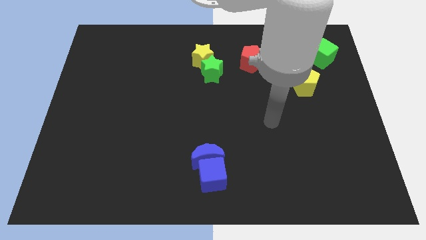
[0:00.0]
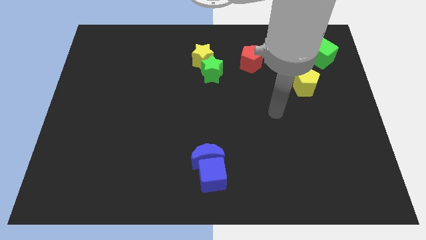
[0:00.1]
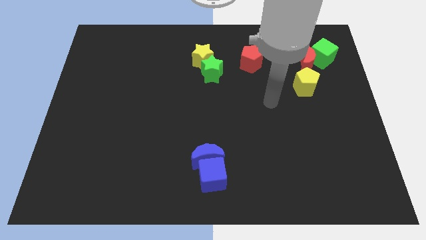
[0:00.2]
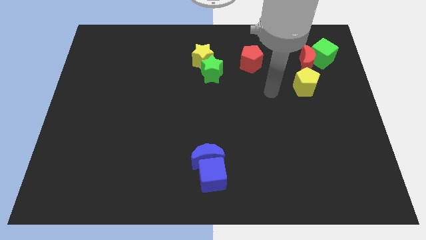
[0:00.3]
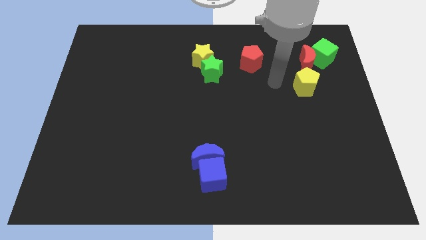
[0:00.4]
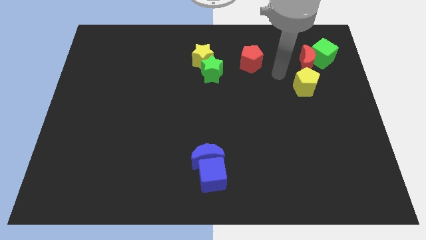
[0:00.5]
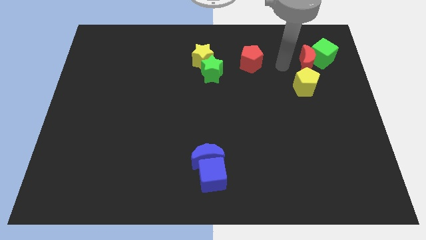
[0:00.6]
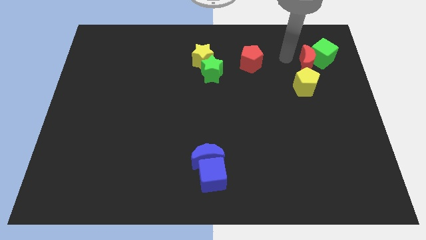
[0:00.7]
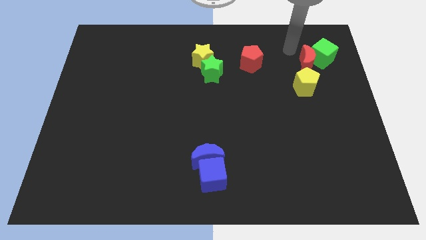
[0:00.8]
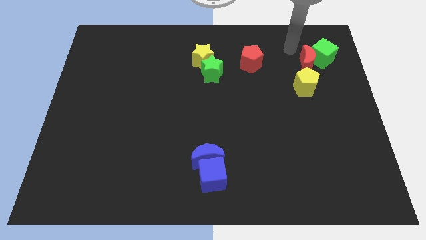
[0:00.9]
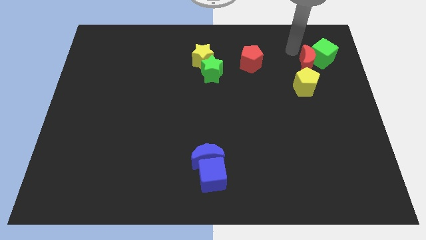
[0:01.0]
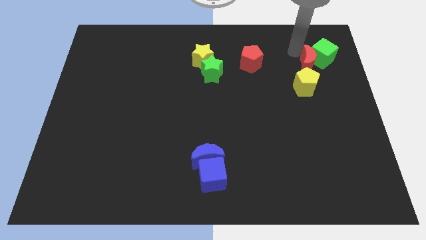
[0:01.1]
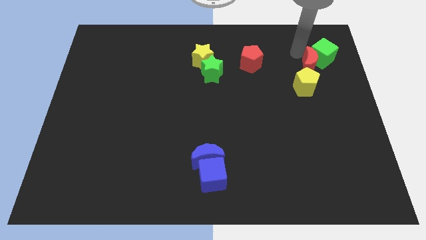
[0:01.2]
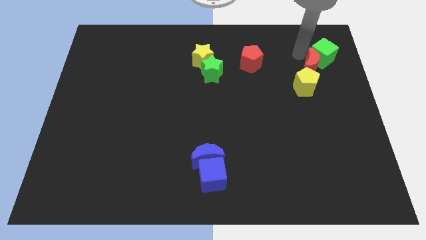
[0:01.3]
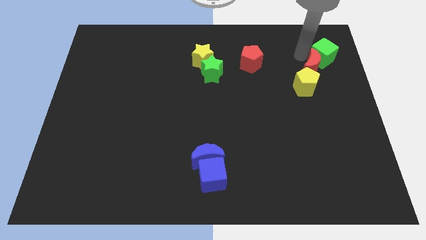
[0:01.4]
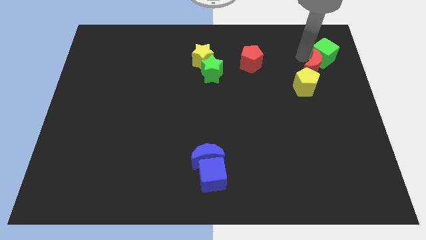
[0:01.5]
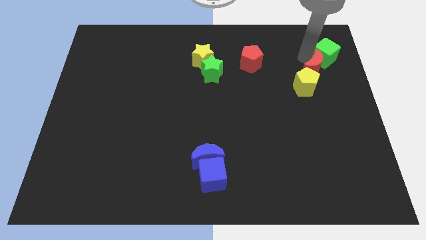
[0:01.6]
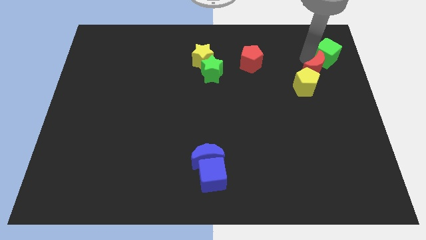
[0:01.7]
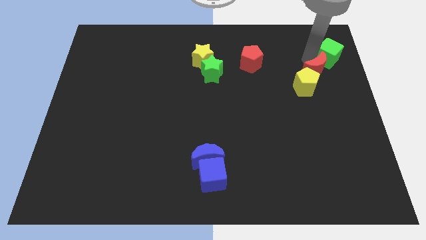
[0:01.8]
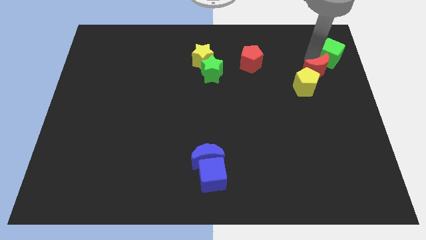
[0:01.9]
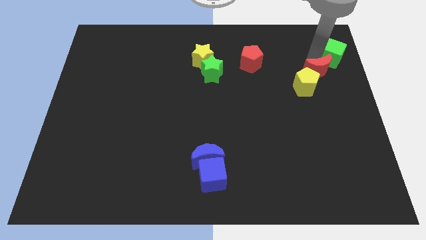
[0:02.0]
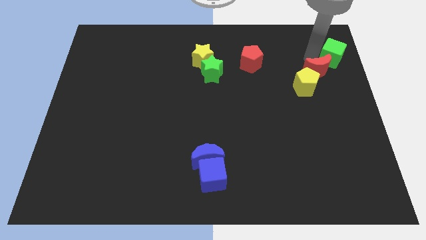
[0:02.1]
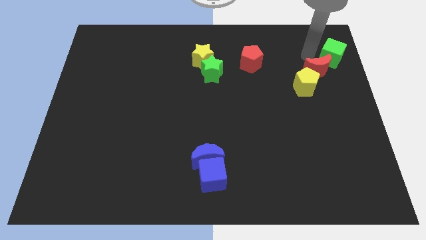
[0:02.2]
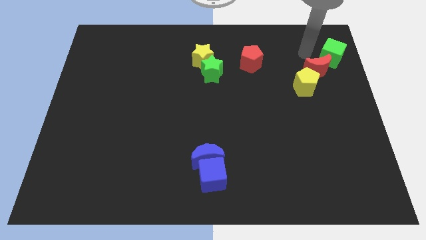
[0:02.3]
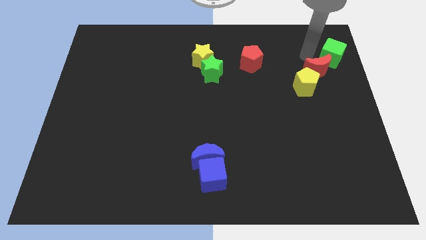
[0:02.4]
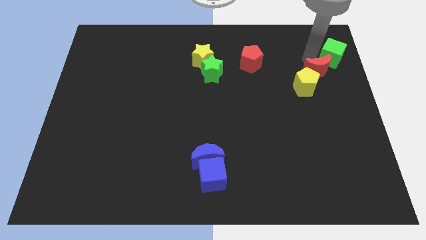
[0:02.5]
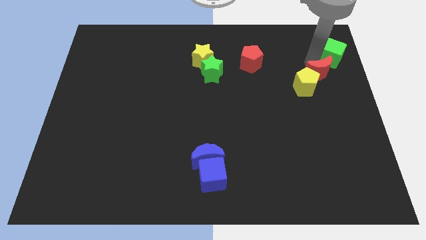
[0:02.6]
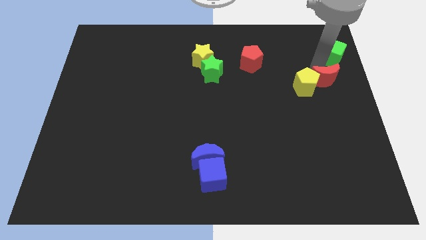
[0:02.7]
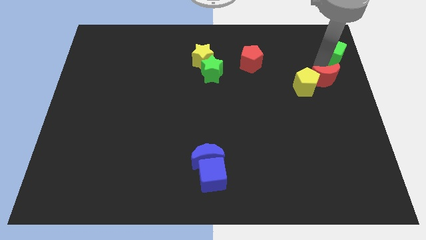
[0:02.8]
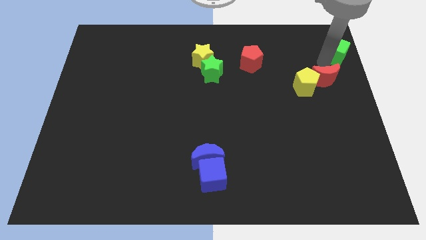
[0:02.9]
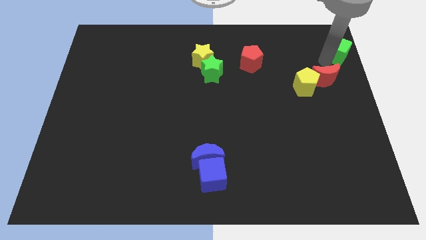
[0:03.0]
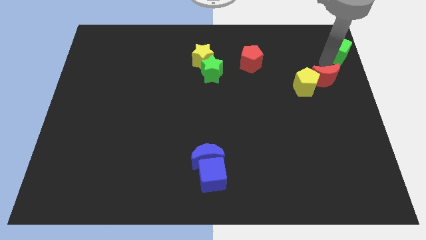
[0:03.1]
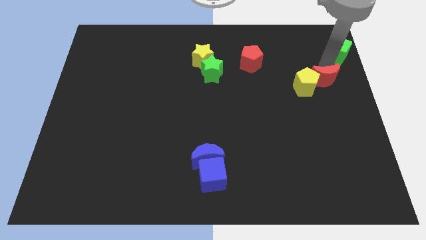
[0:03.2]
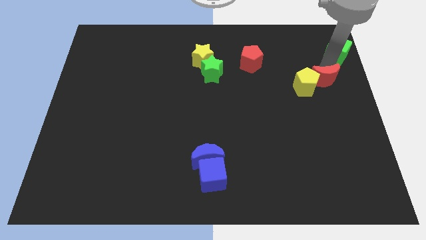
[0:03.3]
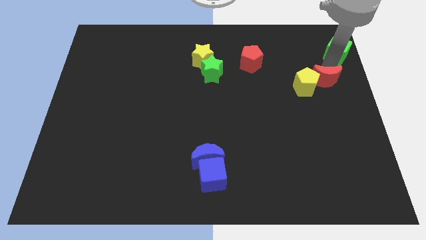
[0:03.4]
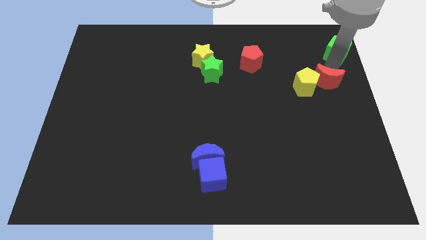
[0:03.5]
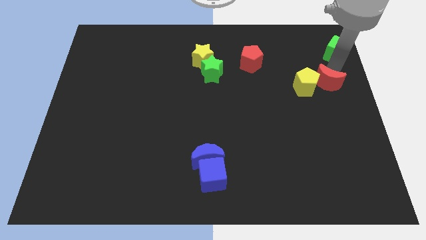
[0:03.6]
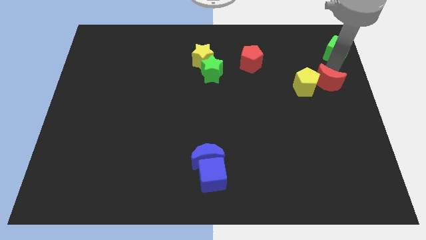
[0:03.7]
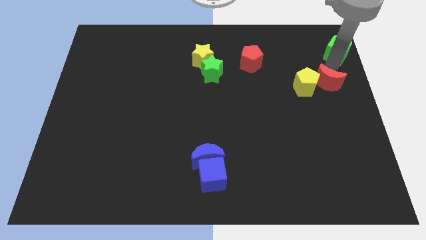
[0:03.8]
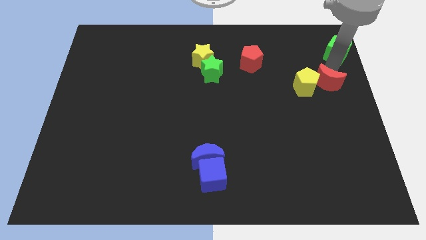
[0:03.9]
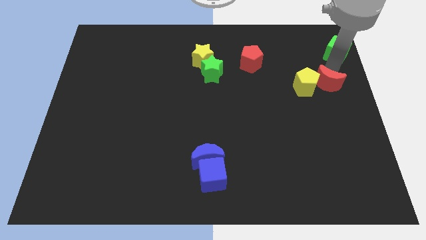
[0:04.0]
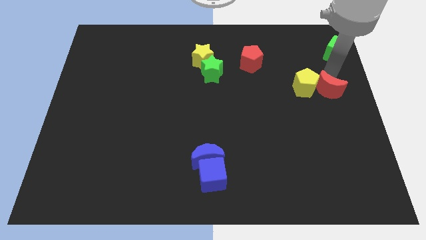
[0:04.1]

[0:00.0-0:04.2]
move the red moon downwards a little

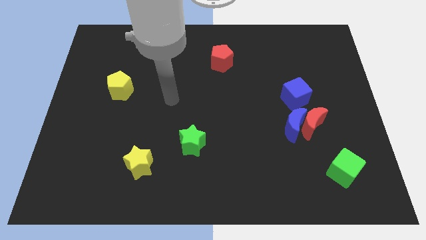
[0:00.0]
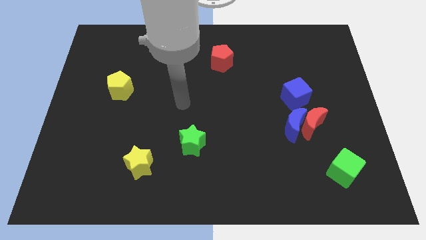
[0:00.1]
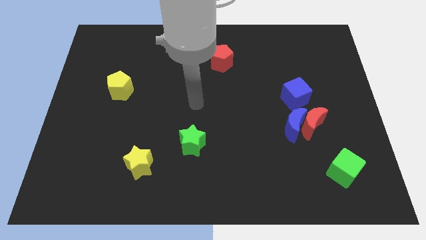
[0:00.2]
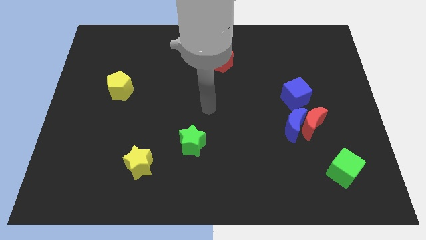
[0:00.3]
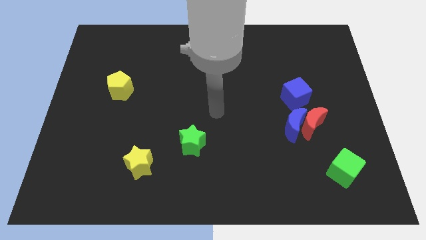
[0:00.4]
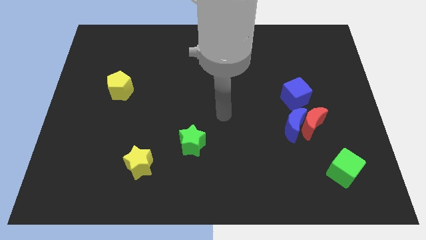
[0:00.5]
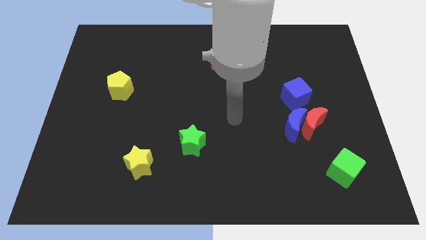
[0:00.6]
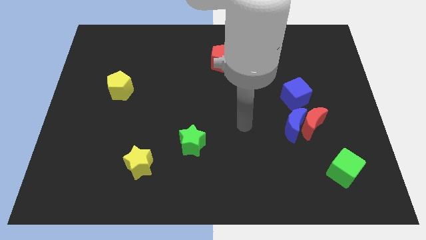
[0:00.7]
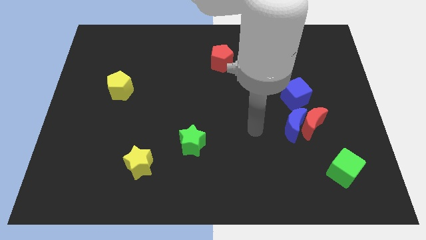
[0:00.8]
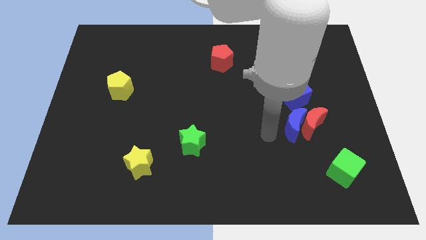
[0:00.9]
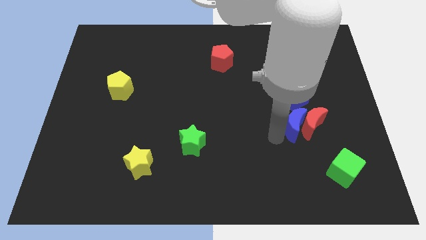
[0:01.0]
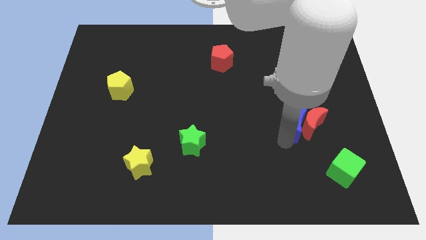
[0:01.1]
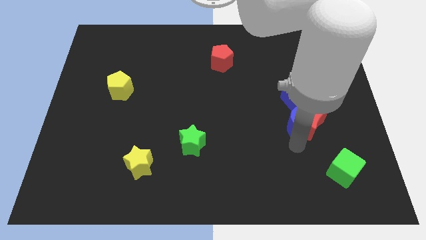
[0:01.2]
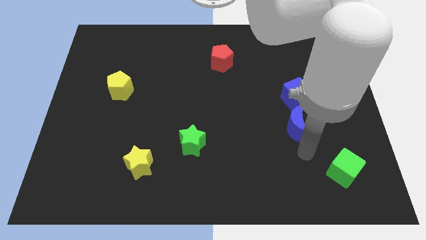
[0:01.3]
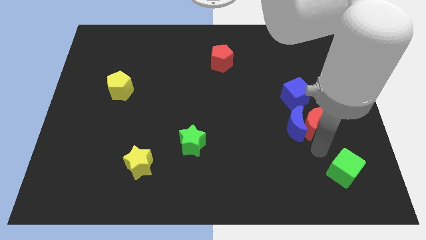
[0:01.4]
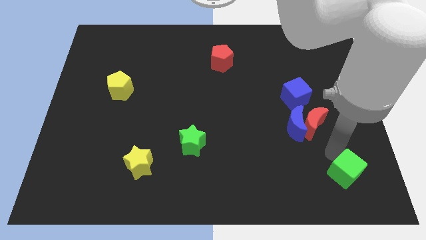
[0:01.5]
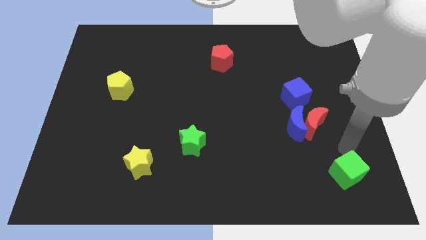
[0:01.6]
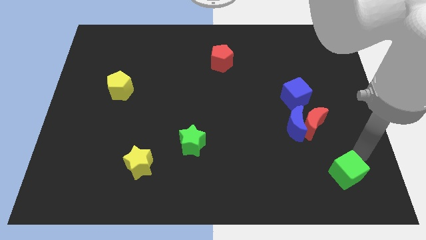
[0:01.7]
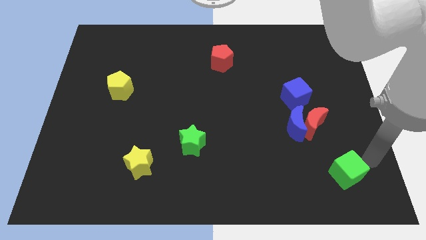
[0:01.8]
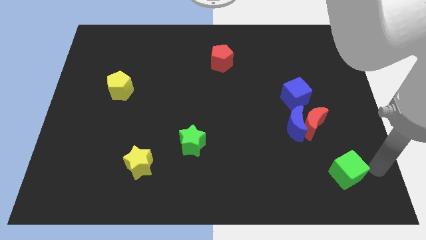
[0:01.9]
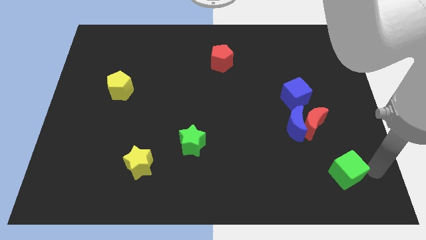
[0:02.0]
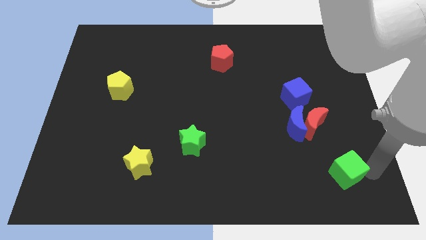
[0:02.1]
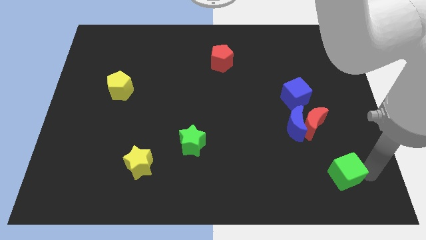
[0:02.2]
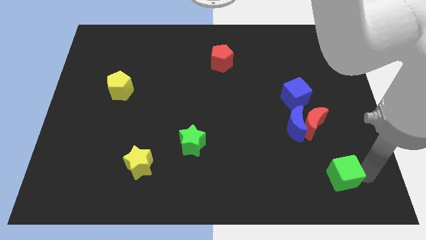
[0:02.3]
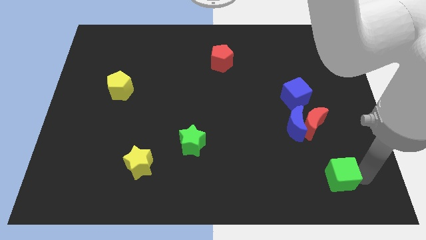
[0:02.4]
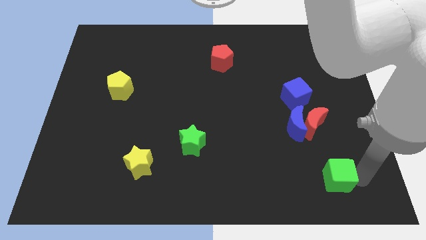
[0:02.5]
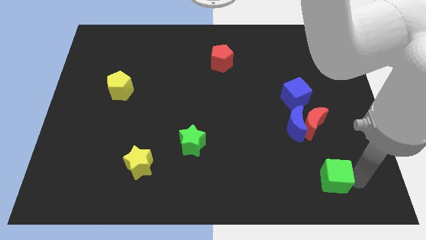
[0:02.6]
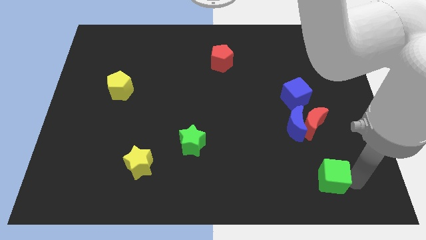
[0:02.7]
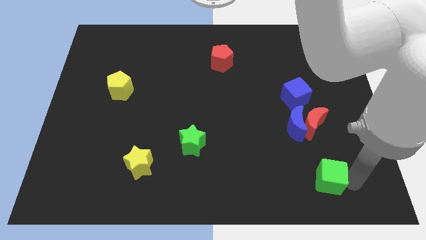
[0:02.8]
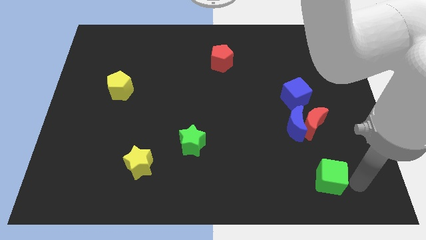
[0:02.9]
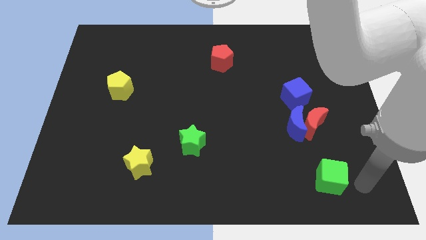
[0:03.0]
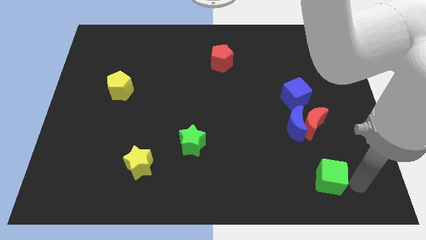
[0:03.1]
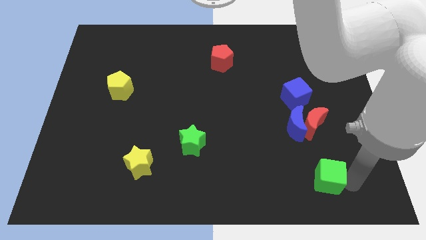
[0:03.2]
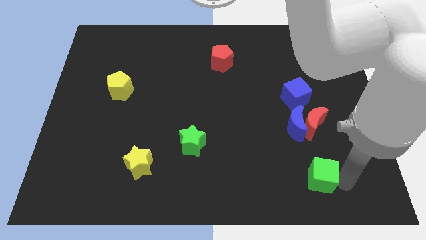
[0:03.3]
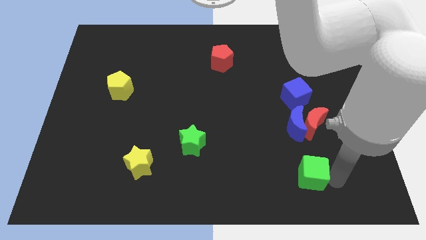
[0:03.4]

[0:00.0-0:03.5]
slide the green cube slightly left
